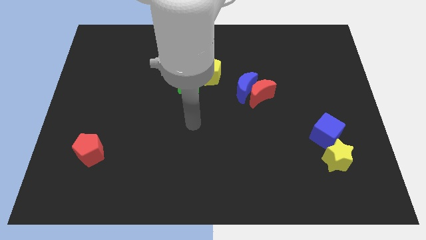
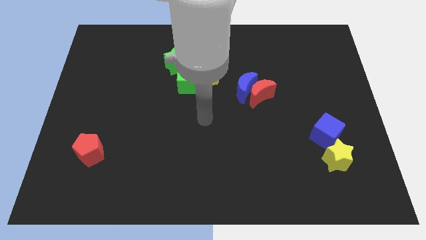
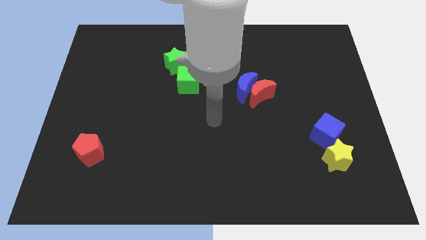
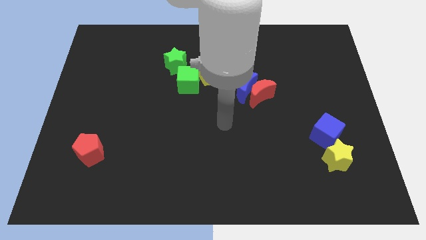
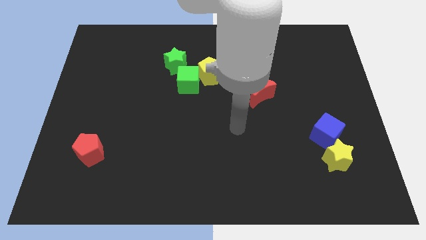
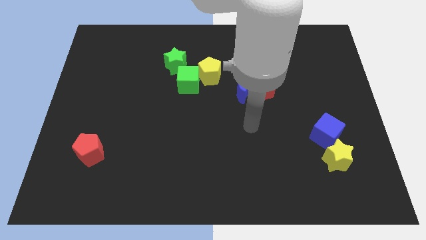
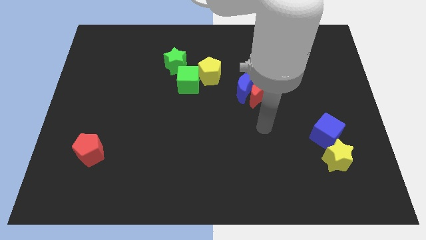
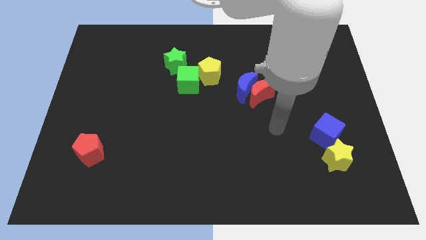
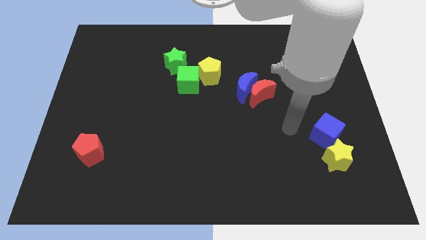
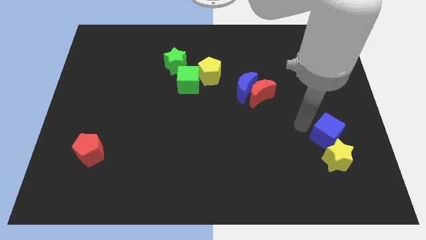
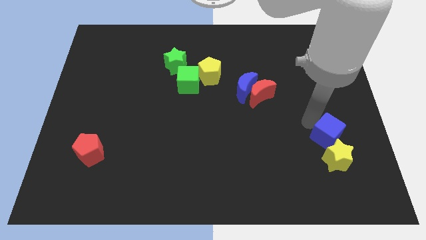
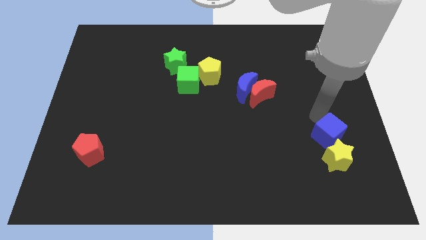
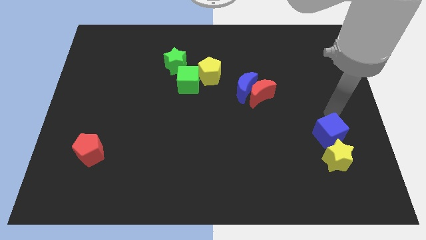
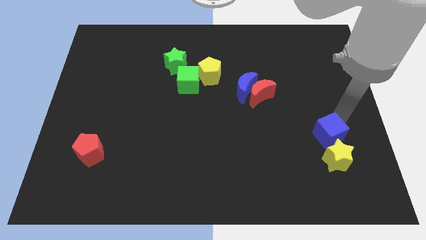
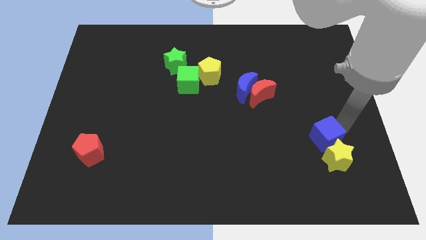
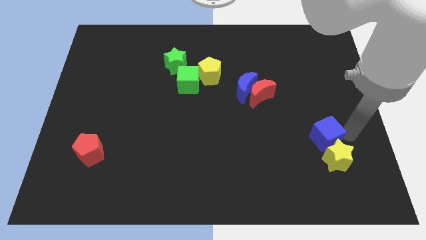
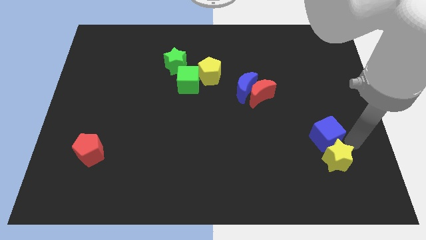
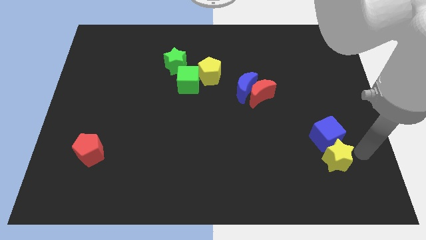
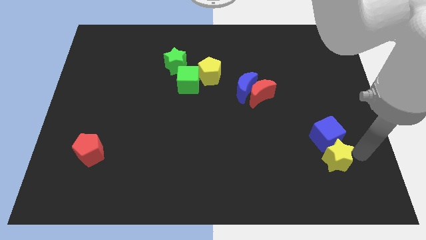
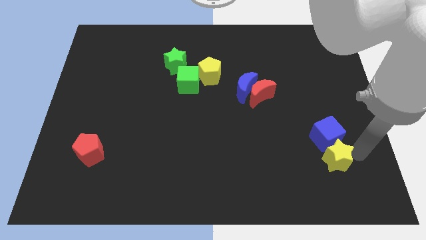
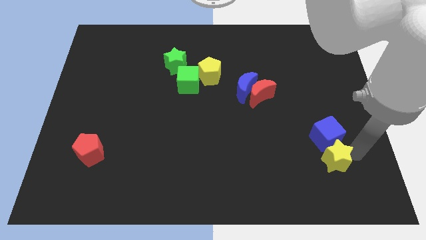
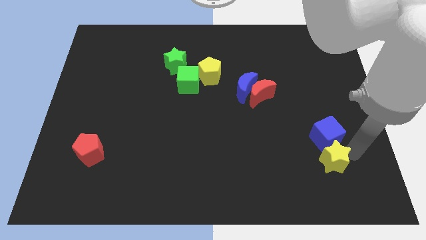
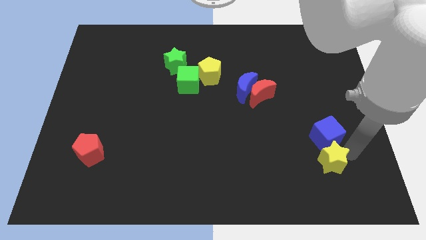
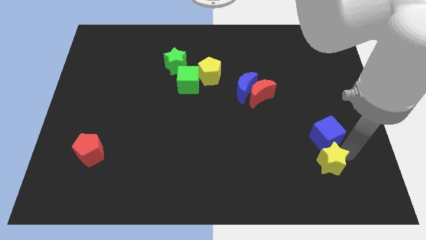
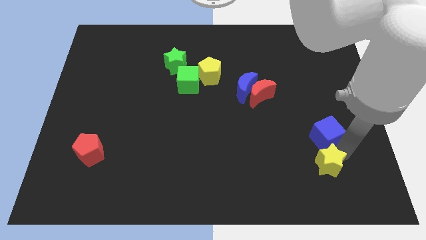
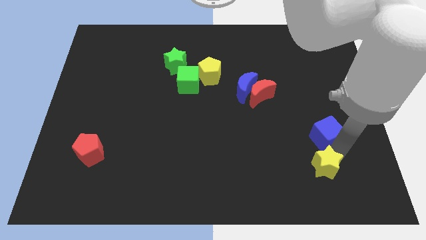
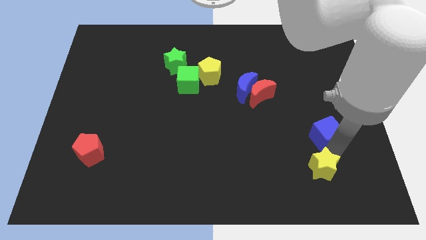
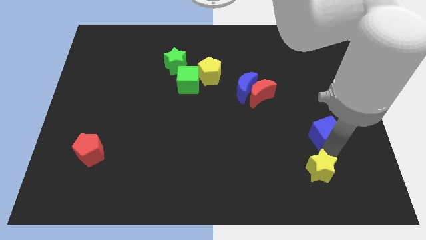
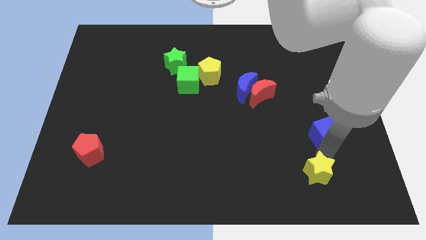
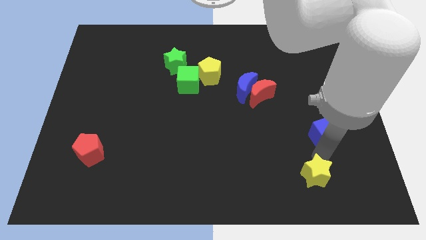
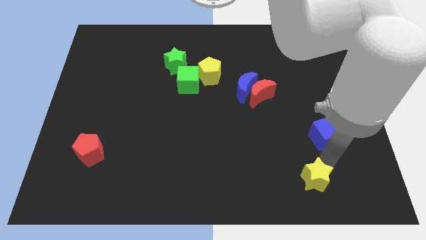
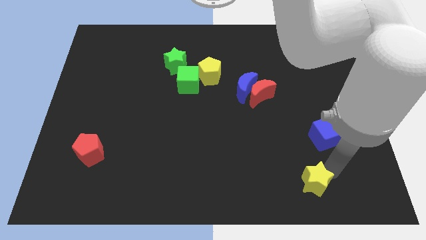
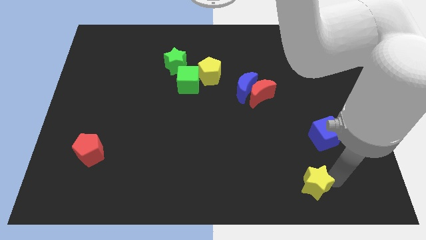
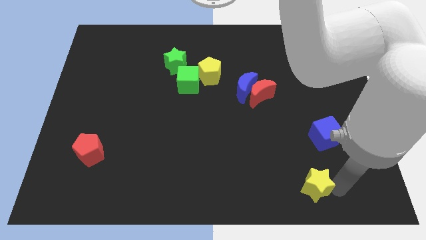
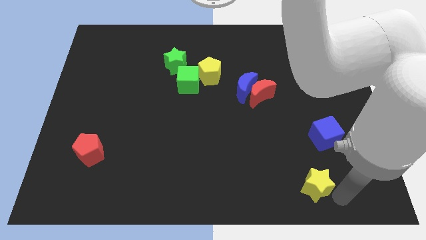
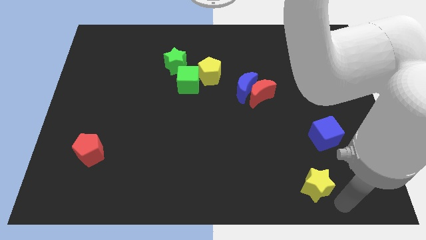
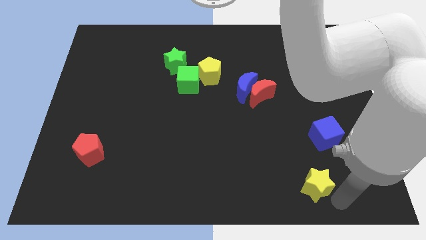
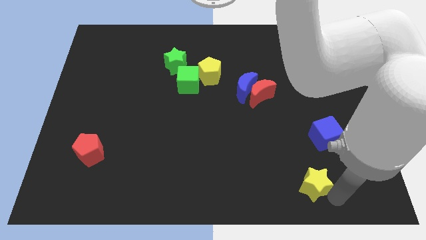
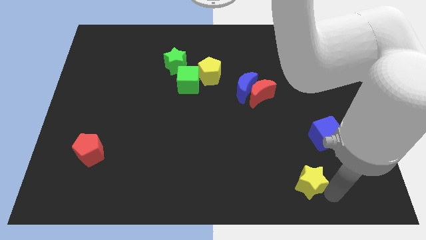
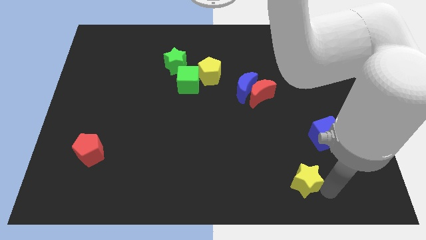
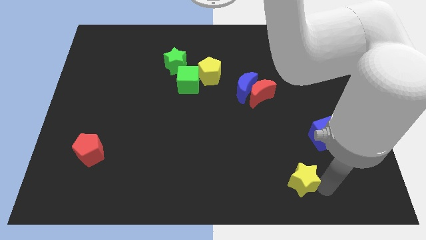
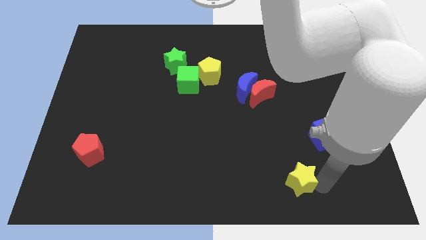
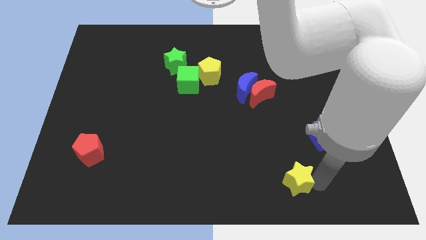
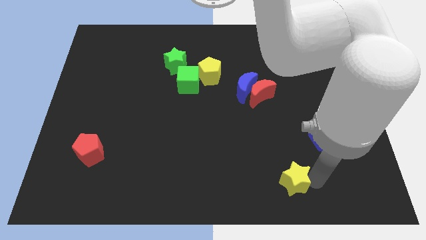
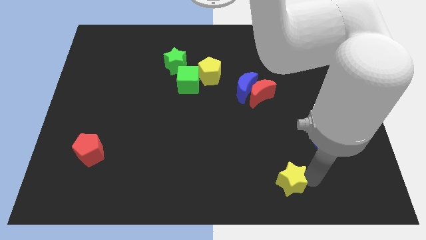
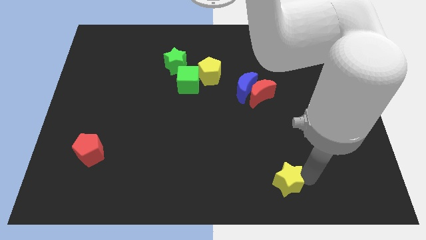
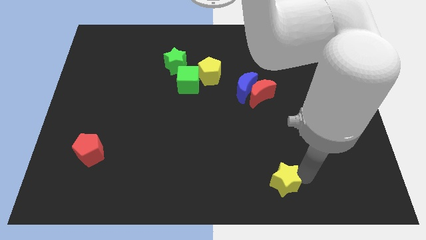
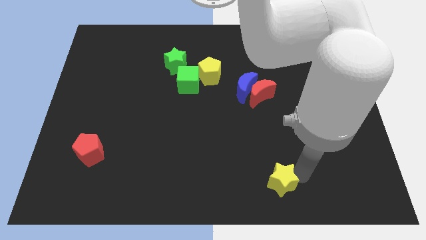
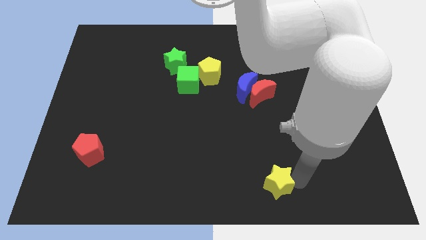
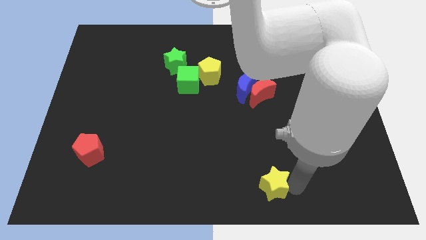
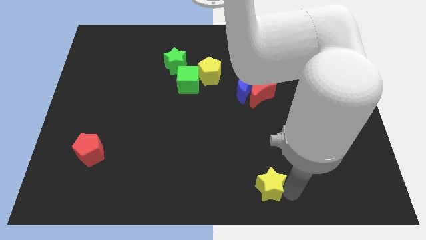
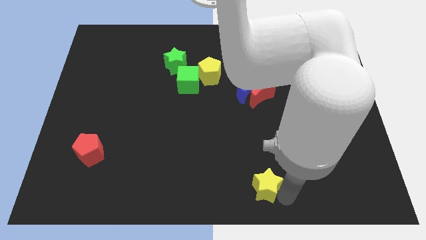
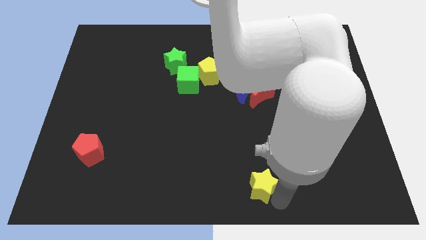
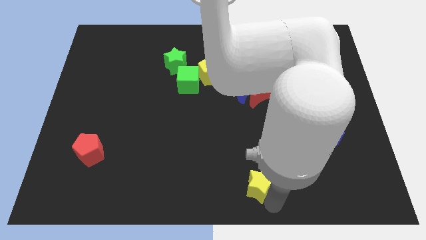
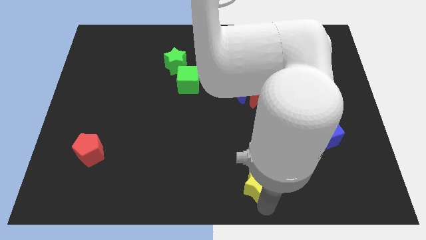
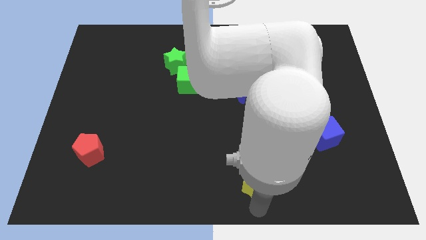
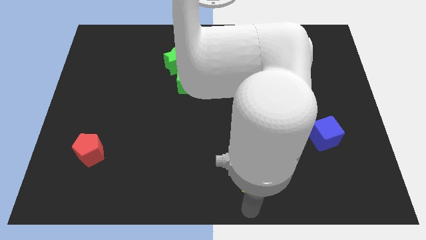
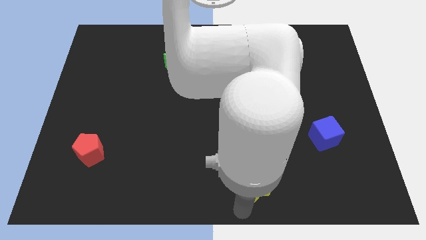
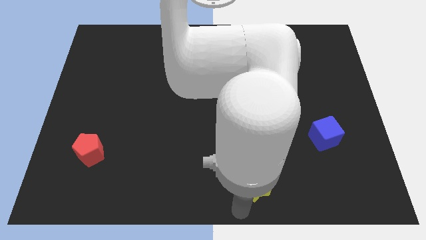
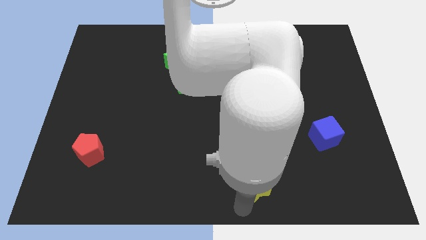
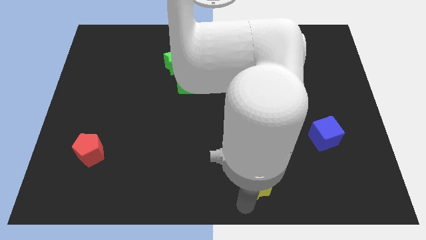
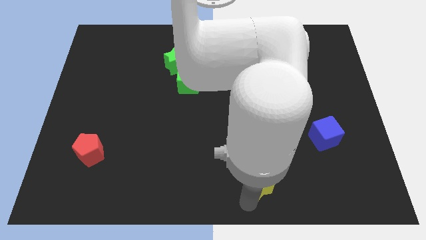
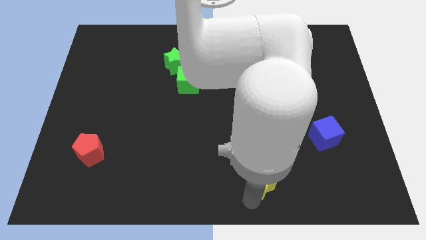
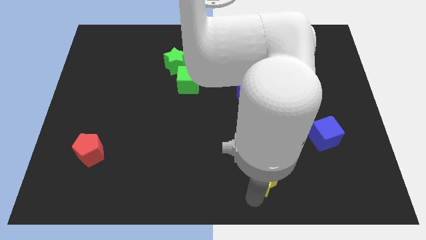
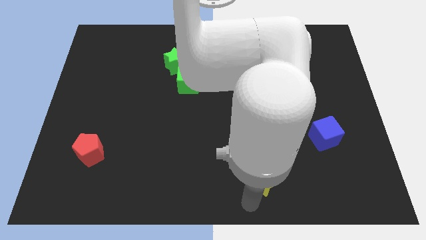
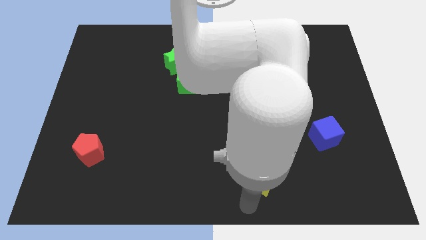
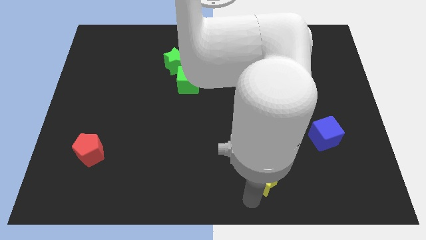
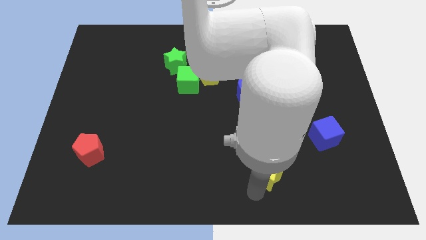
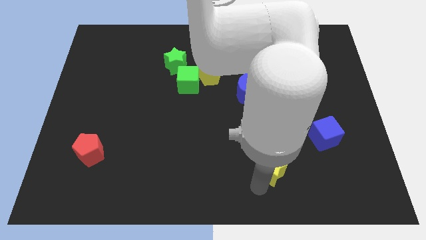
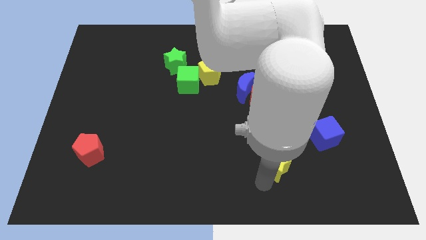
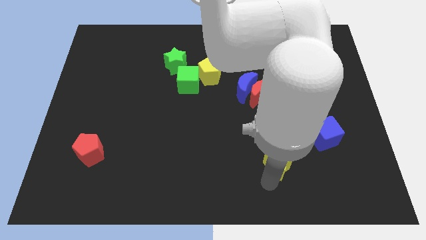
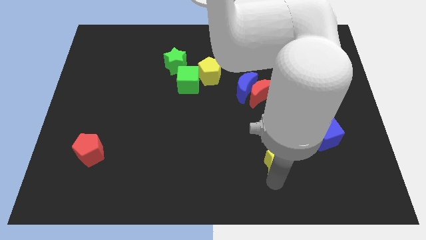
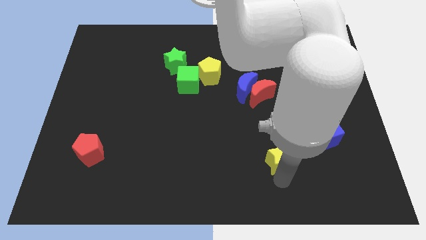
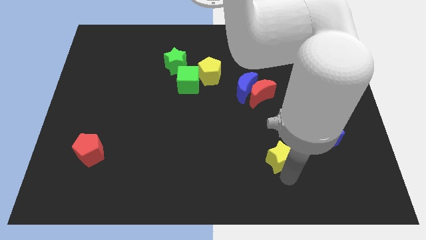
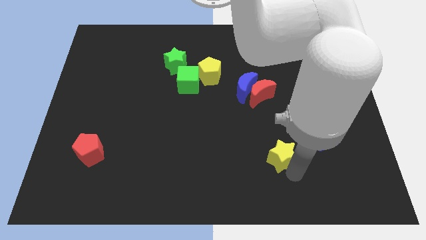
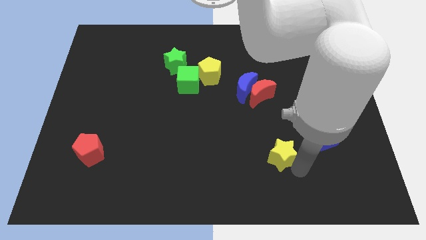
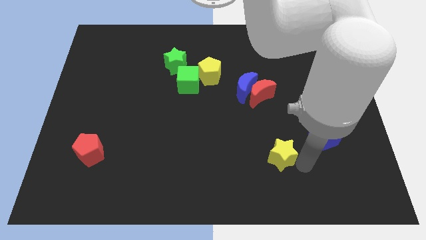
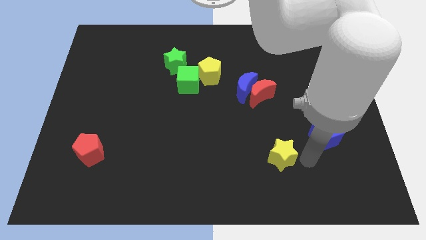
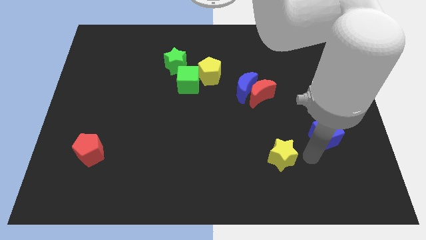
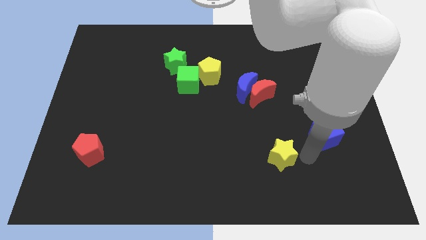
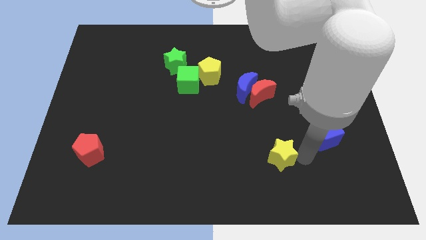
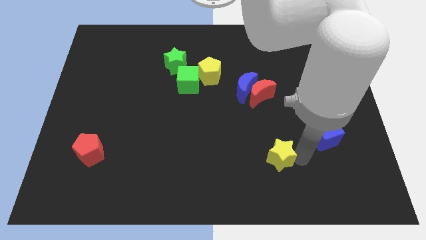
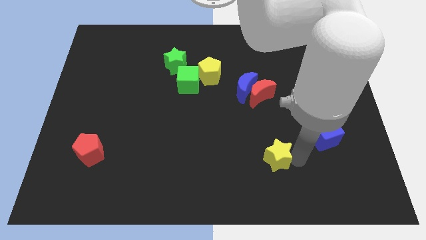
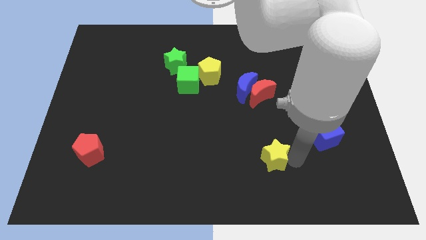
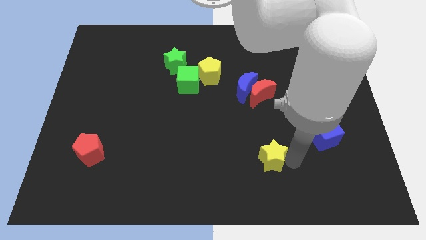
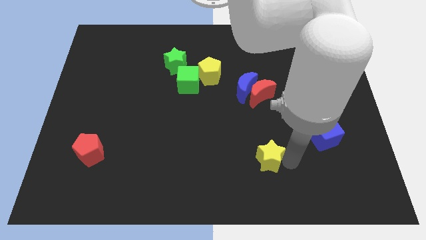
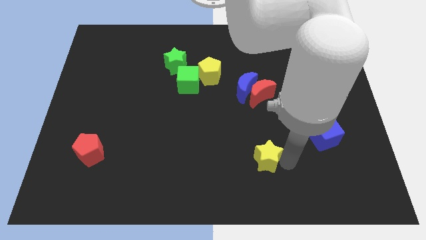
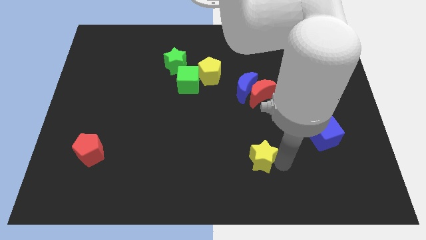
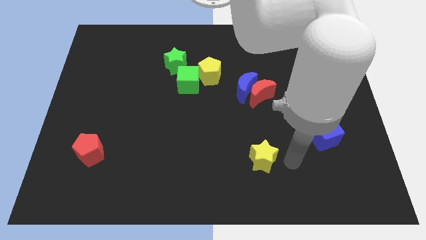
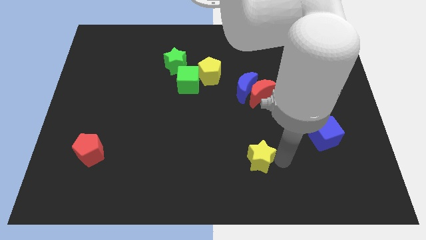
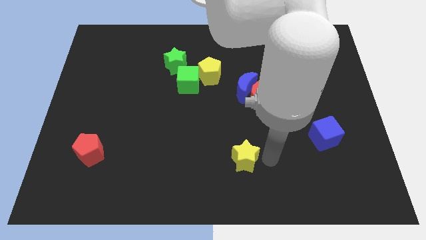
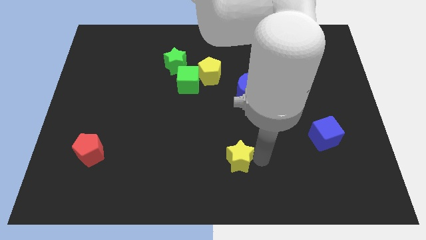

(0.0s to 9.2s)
push the yellow star left
